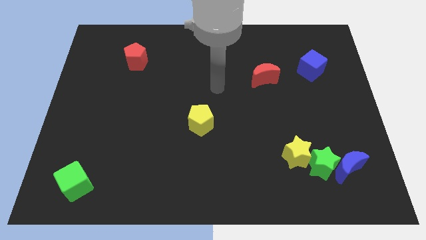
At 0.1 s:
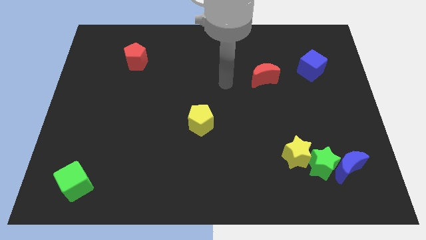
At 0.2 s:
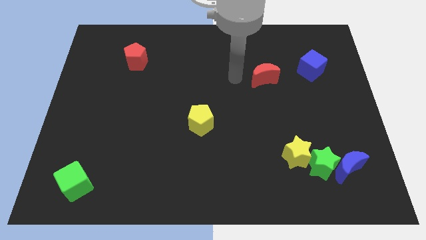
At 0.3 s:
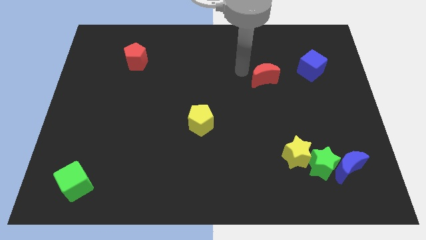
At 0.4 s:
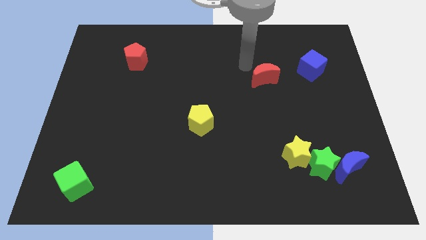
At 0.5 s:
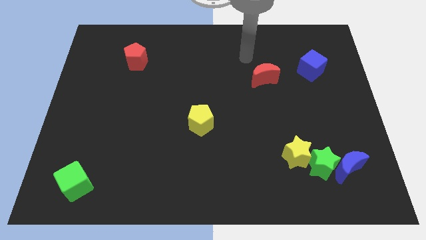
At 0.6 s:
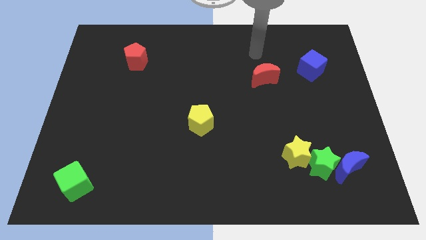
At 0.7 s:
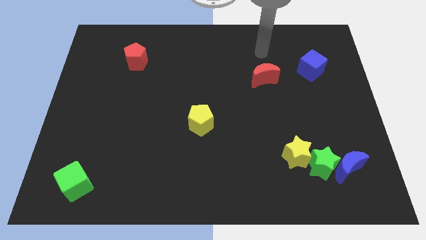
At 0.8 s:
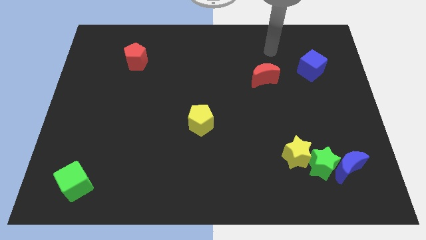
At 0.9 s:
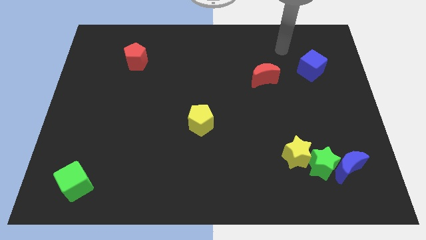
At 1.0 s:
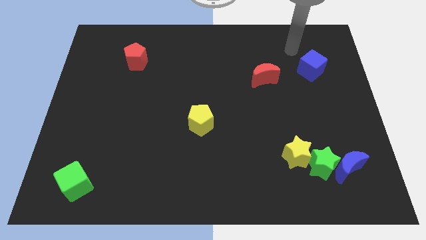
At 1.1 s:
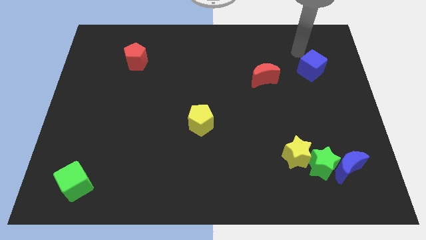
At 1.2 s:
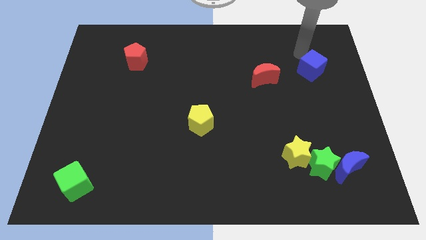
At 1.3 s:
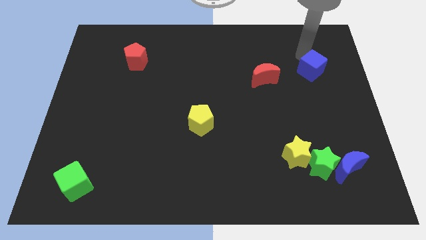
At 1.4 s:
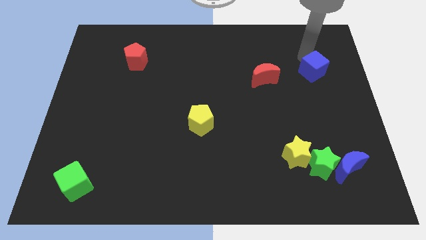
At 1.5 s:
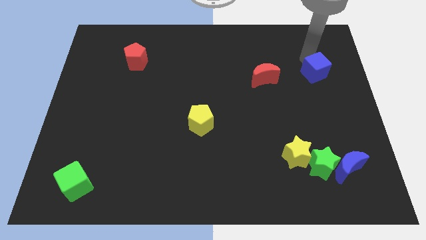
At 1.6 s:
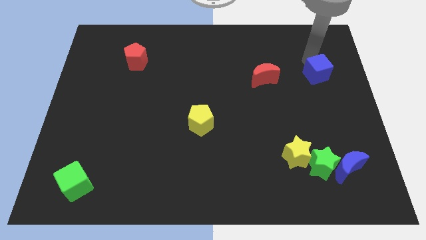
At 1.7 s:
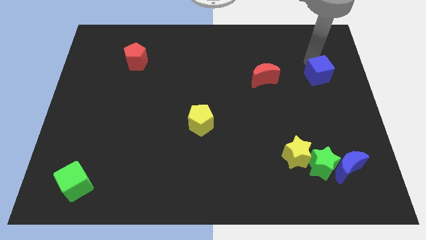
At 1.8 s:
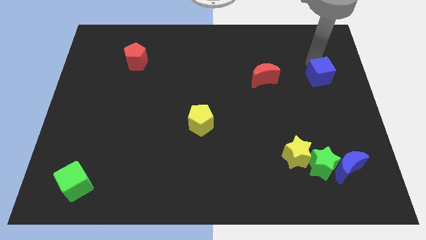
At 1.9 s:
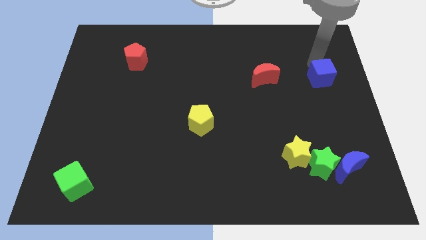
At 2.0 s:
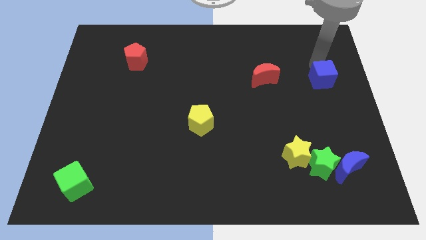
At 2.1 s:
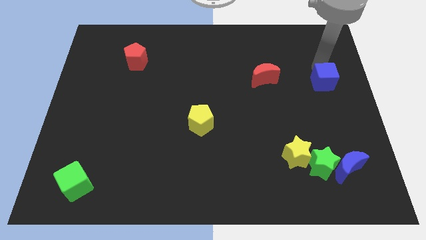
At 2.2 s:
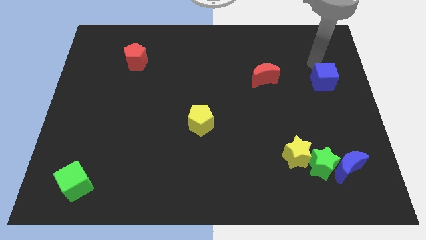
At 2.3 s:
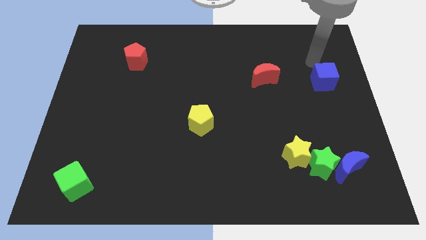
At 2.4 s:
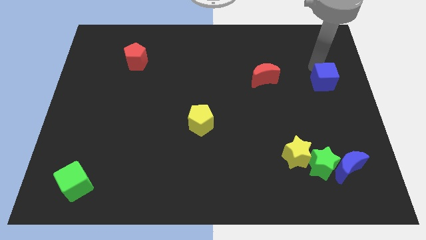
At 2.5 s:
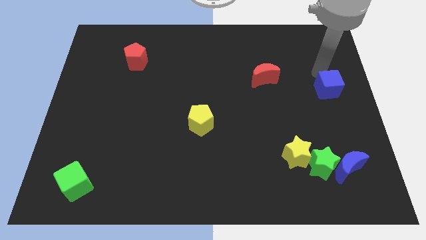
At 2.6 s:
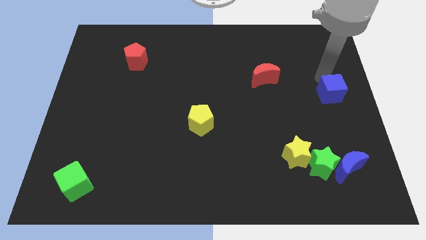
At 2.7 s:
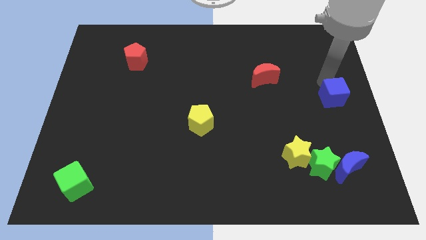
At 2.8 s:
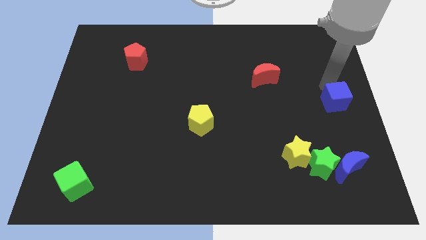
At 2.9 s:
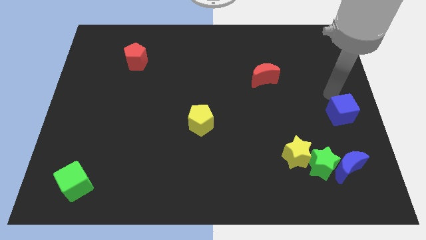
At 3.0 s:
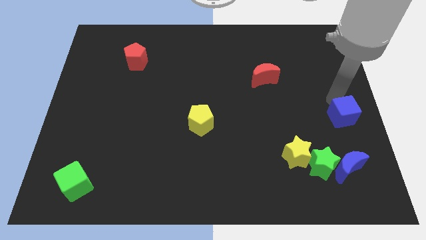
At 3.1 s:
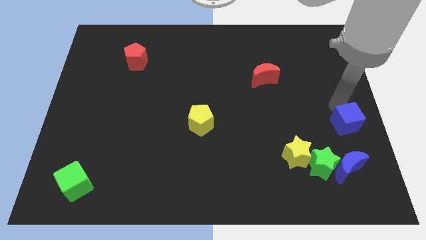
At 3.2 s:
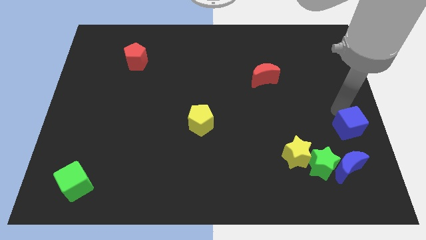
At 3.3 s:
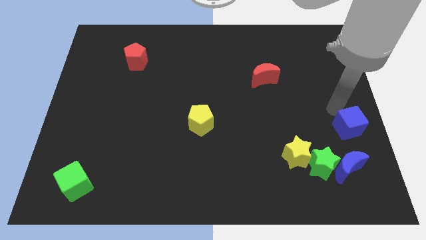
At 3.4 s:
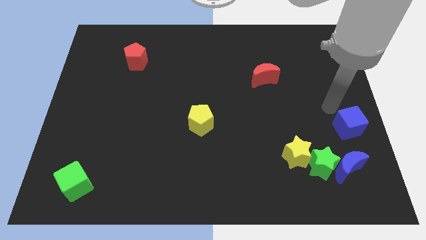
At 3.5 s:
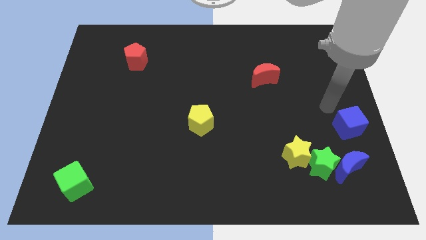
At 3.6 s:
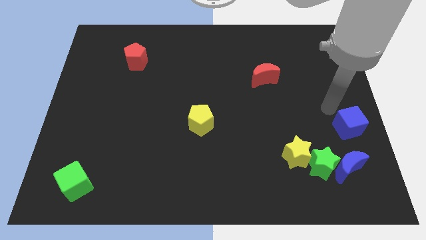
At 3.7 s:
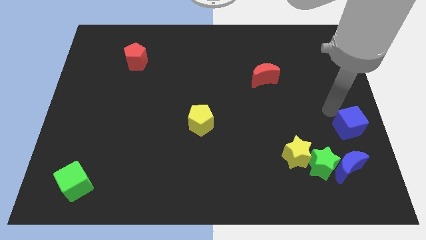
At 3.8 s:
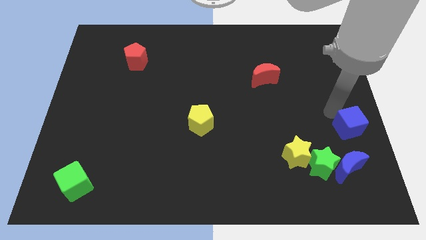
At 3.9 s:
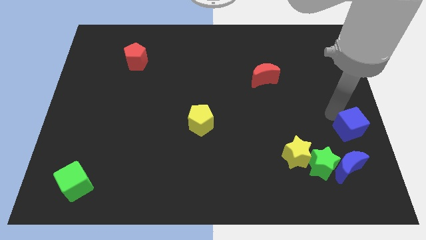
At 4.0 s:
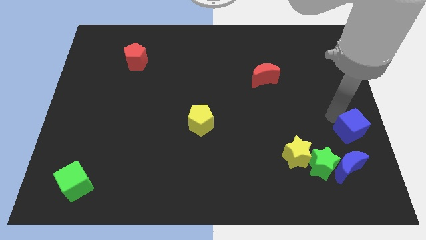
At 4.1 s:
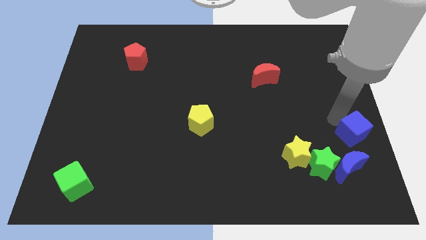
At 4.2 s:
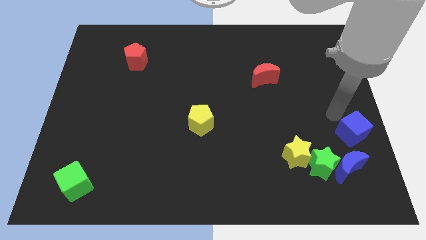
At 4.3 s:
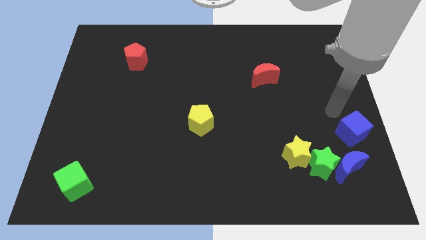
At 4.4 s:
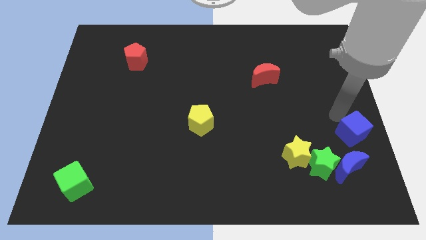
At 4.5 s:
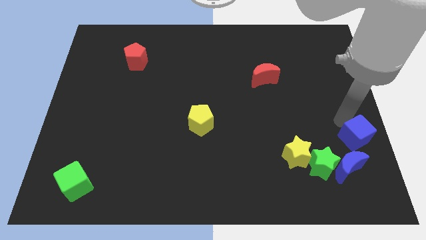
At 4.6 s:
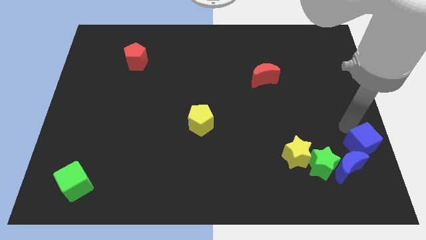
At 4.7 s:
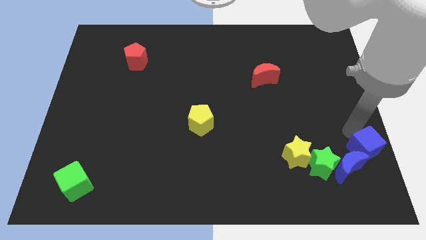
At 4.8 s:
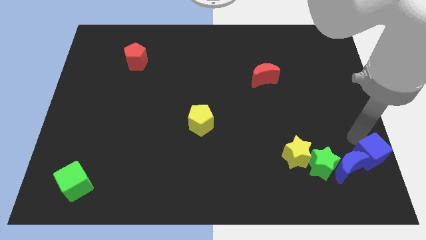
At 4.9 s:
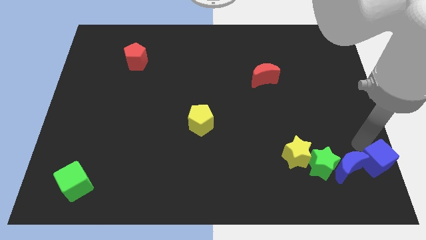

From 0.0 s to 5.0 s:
push the blue cube to the bottom right corner

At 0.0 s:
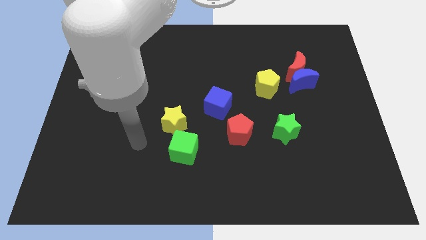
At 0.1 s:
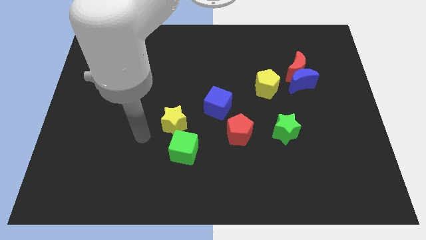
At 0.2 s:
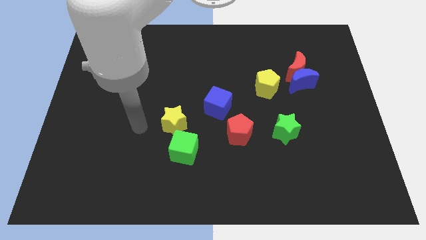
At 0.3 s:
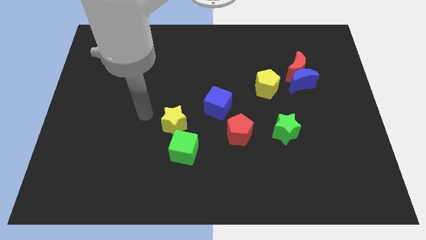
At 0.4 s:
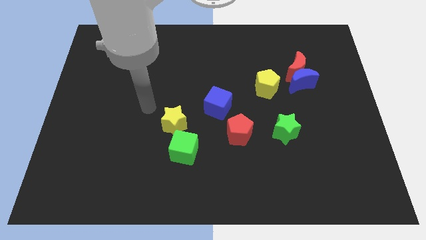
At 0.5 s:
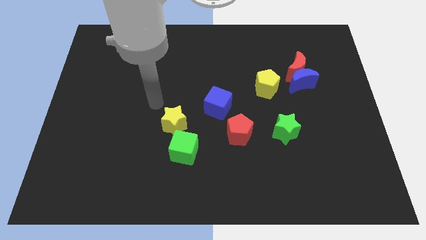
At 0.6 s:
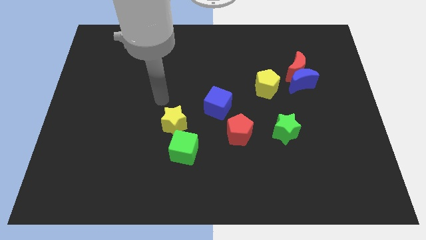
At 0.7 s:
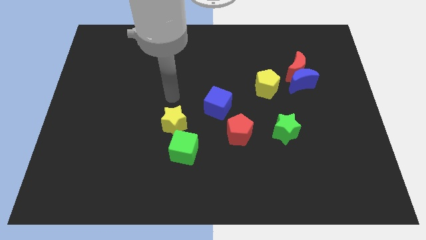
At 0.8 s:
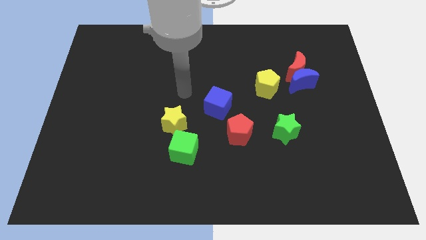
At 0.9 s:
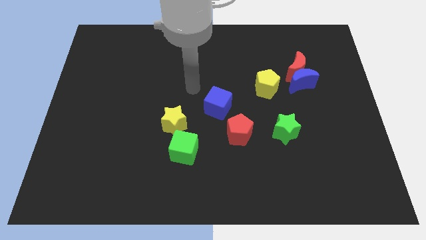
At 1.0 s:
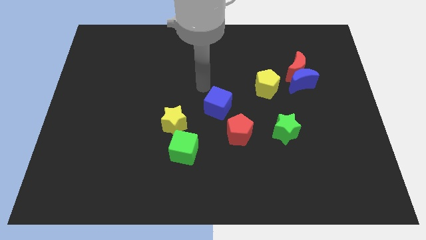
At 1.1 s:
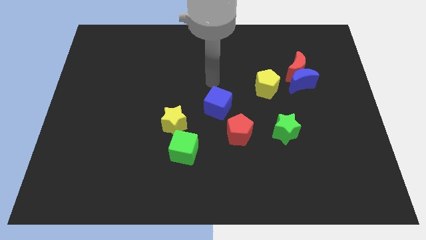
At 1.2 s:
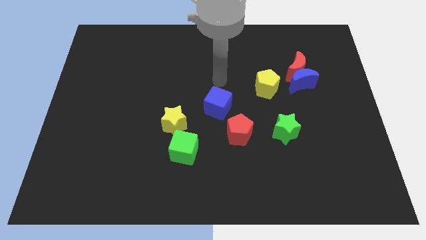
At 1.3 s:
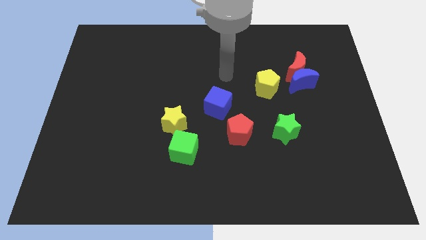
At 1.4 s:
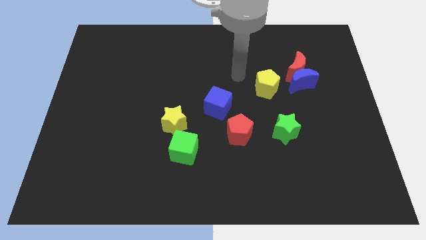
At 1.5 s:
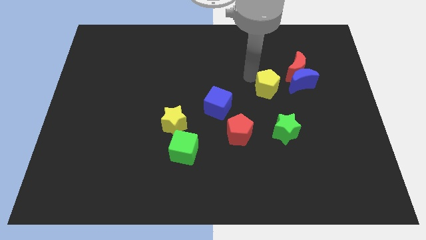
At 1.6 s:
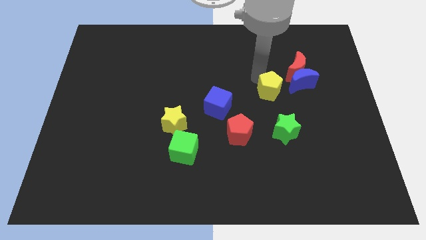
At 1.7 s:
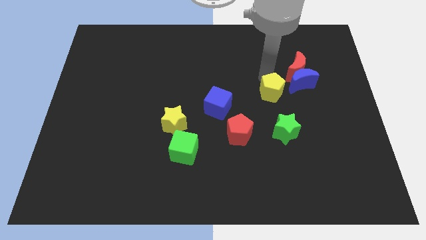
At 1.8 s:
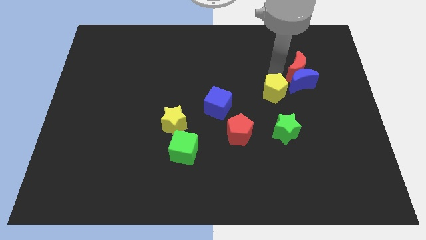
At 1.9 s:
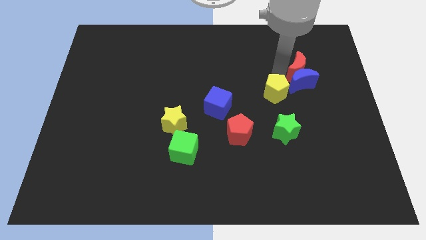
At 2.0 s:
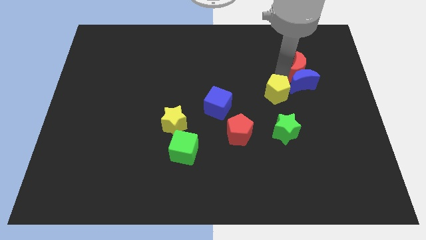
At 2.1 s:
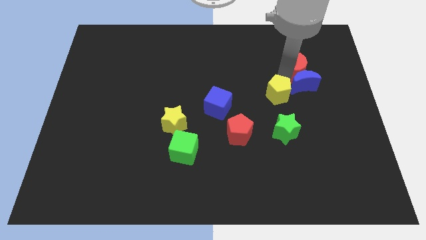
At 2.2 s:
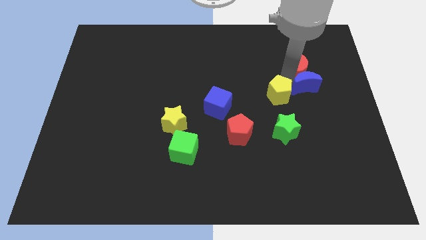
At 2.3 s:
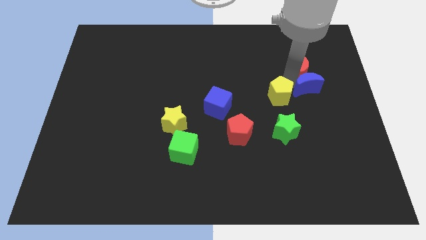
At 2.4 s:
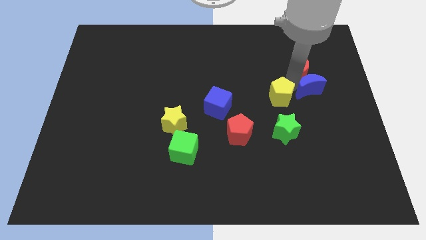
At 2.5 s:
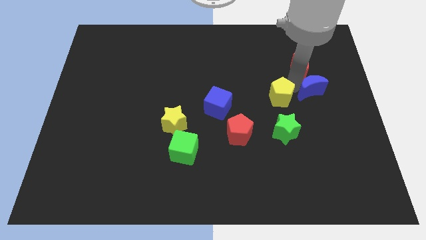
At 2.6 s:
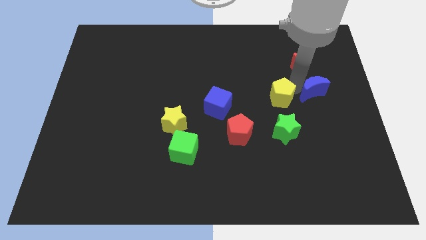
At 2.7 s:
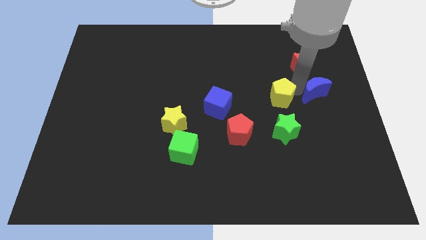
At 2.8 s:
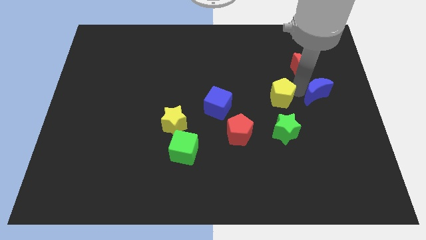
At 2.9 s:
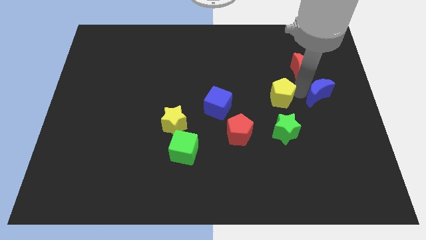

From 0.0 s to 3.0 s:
move the blue moon to the center right
